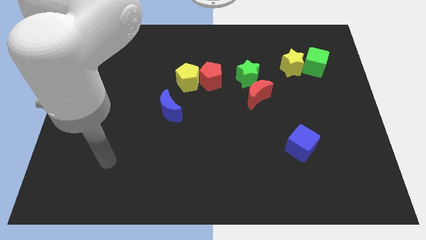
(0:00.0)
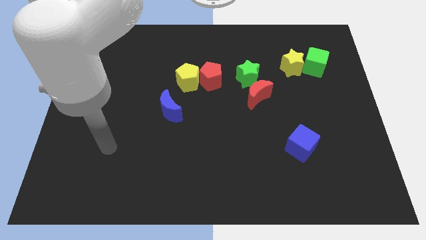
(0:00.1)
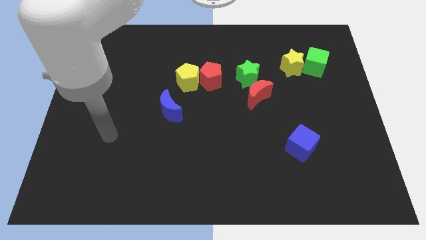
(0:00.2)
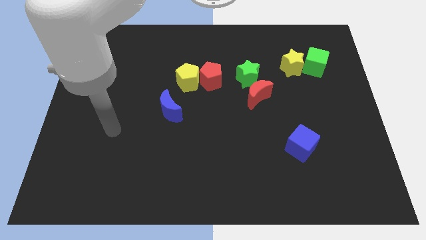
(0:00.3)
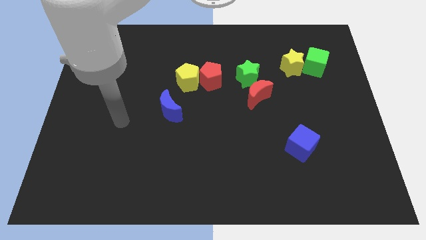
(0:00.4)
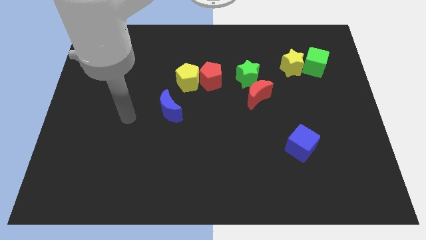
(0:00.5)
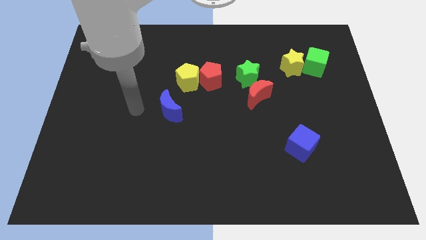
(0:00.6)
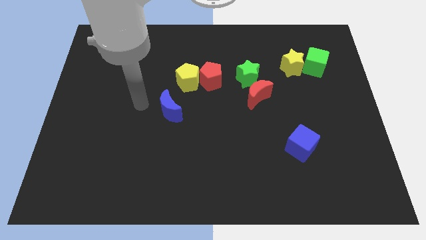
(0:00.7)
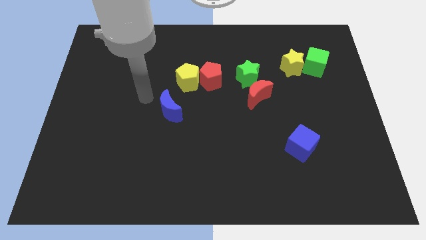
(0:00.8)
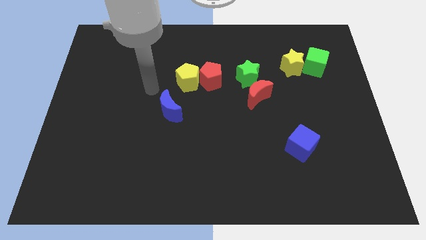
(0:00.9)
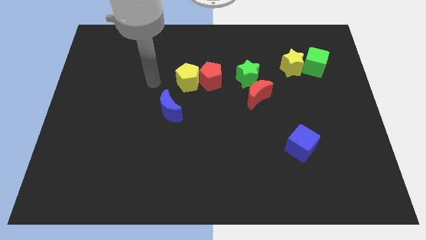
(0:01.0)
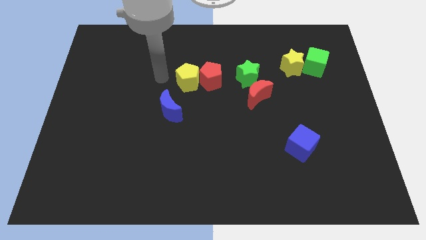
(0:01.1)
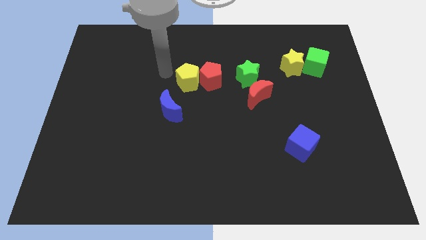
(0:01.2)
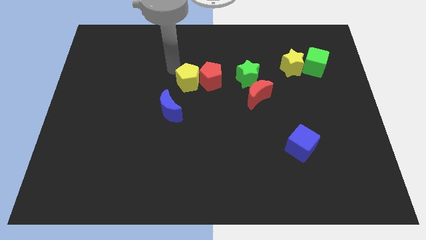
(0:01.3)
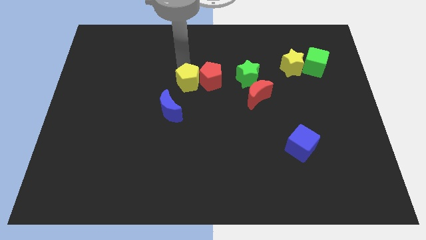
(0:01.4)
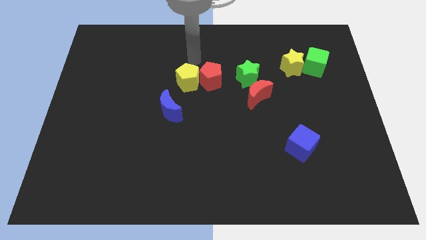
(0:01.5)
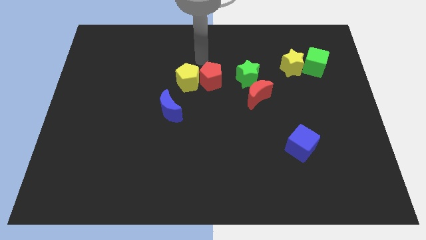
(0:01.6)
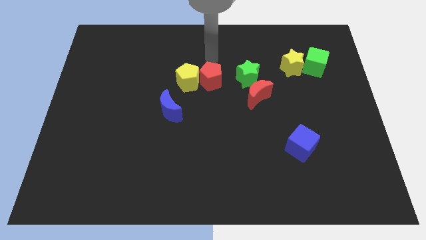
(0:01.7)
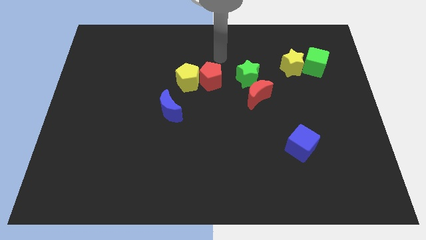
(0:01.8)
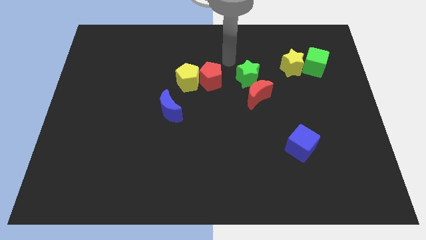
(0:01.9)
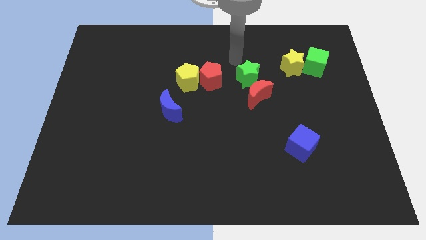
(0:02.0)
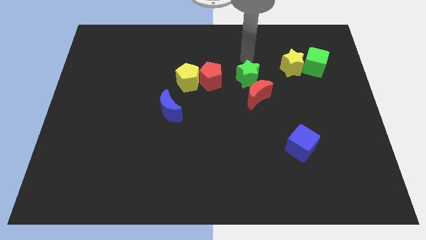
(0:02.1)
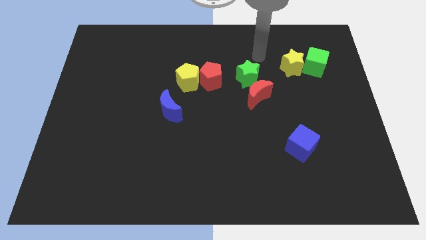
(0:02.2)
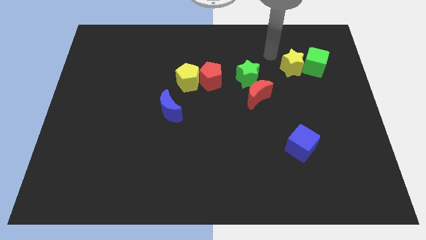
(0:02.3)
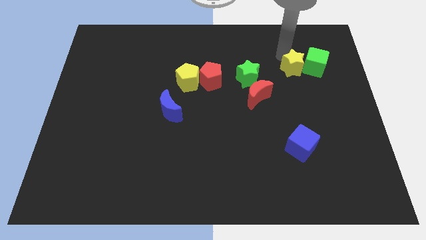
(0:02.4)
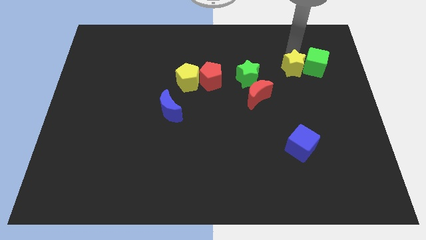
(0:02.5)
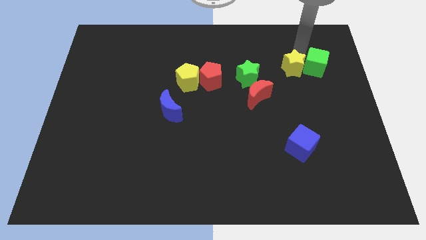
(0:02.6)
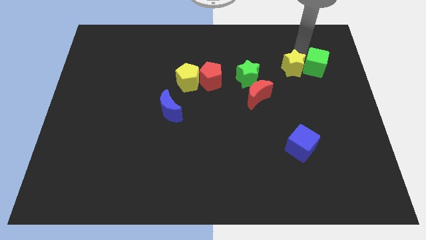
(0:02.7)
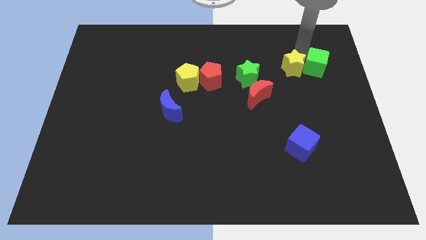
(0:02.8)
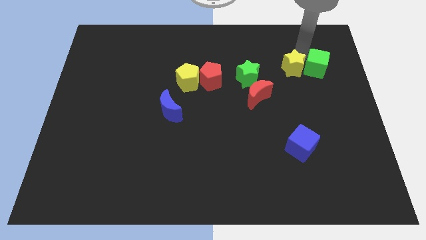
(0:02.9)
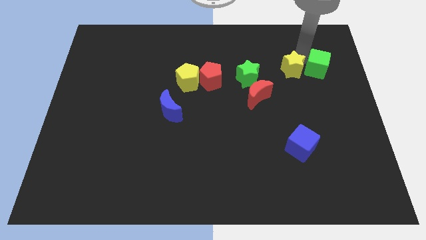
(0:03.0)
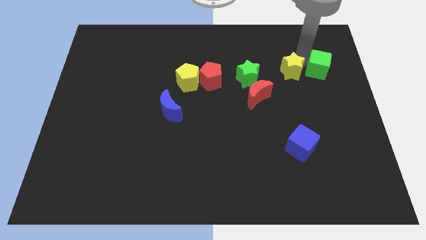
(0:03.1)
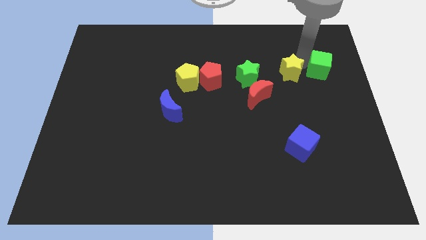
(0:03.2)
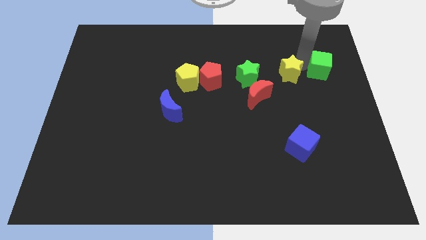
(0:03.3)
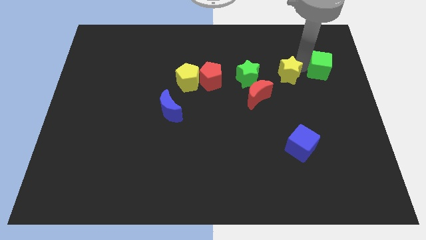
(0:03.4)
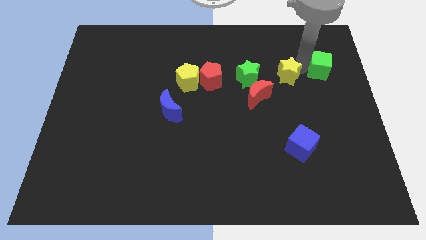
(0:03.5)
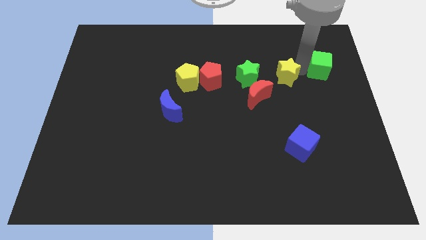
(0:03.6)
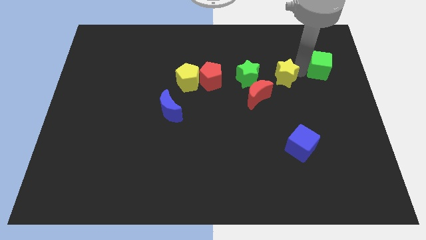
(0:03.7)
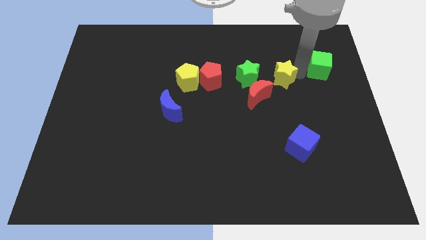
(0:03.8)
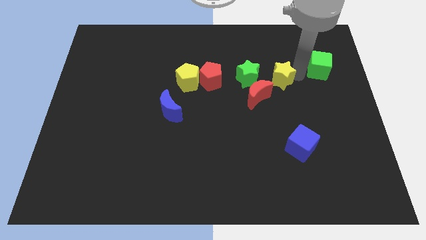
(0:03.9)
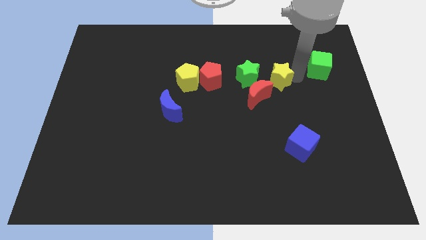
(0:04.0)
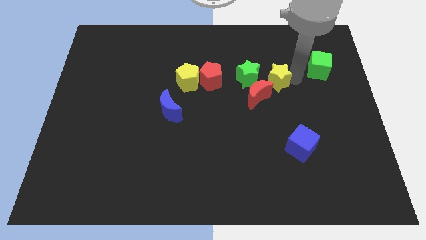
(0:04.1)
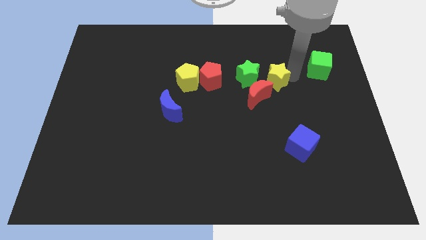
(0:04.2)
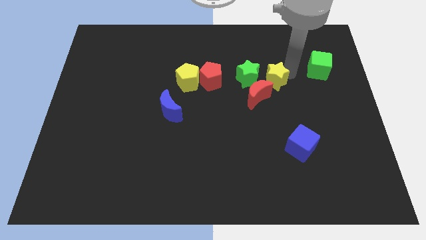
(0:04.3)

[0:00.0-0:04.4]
push the yellow star a little bit diagonally downwards and to the left

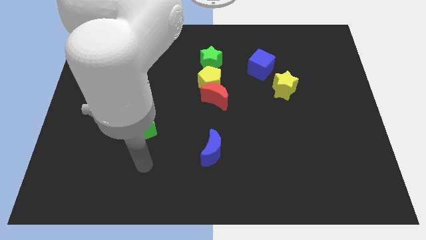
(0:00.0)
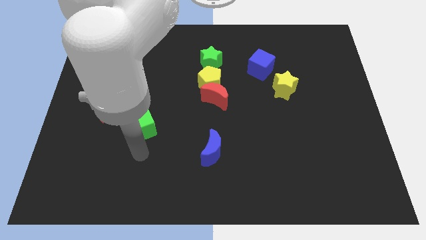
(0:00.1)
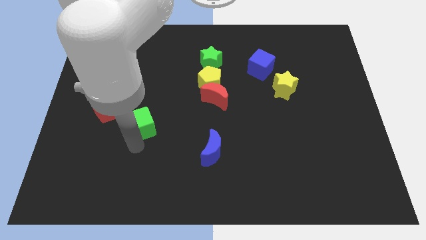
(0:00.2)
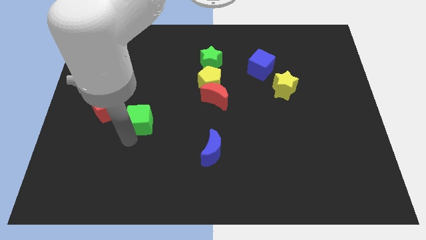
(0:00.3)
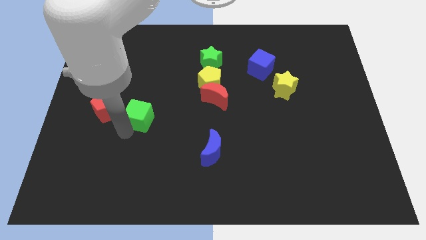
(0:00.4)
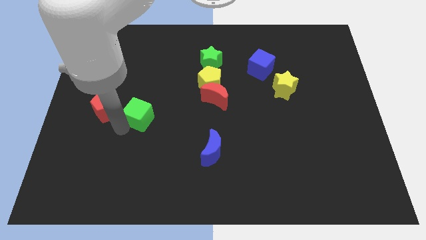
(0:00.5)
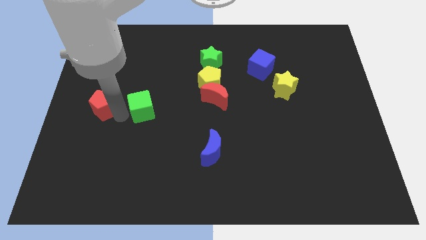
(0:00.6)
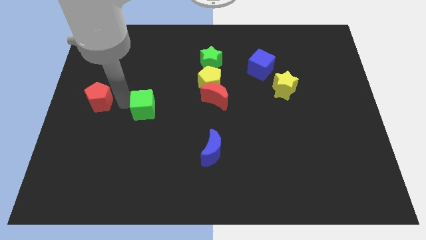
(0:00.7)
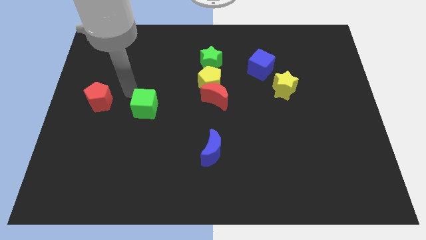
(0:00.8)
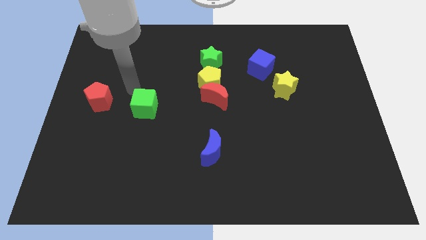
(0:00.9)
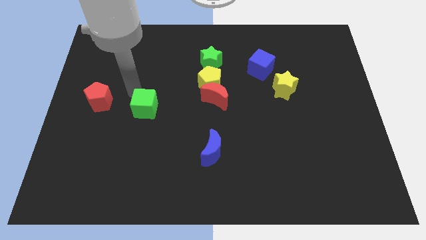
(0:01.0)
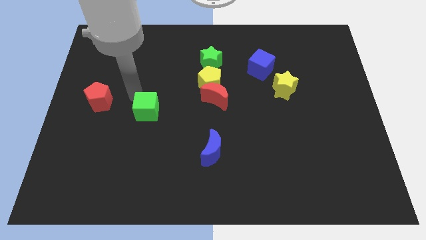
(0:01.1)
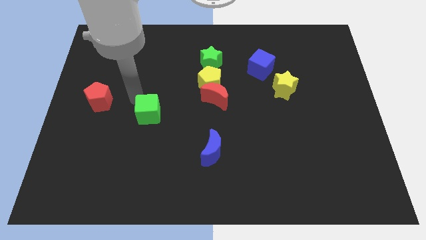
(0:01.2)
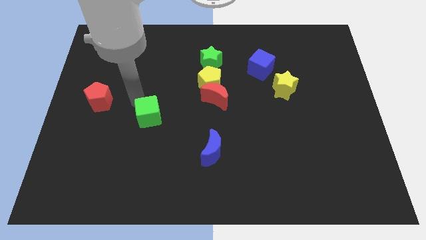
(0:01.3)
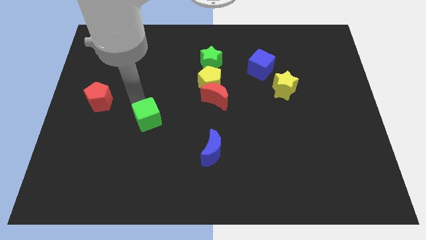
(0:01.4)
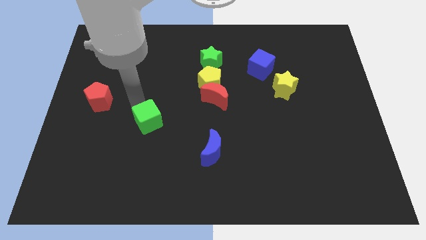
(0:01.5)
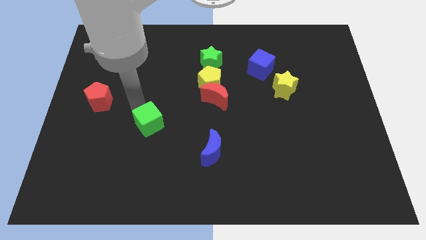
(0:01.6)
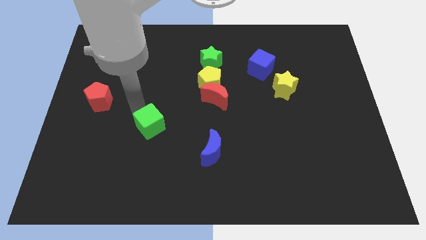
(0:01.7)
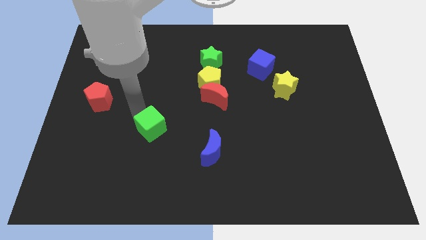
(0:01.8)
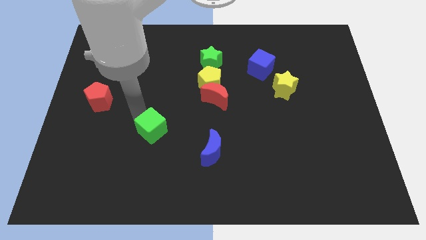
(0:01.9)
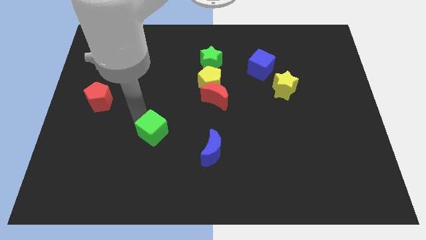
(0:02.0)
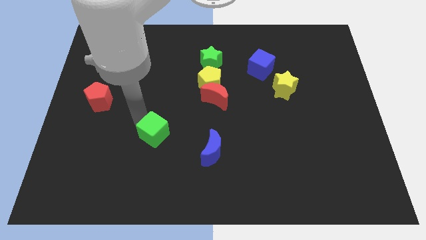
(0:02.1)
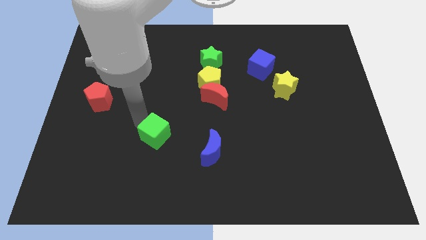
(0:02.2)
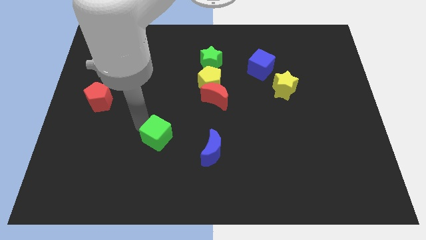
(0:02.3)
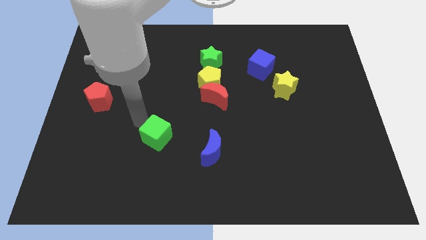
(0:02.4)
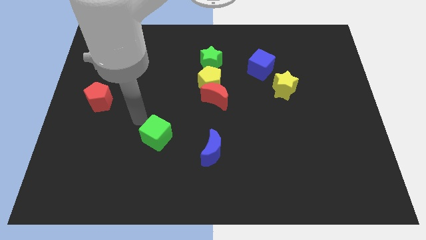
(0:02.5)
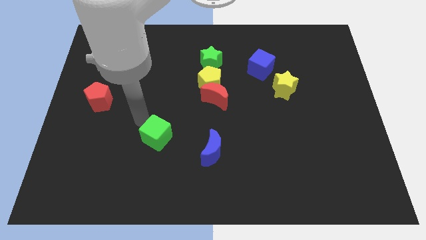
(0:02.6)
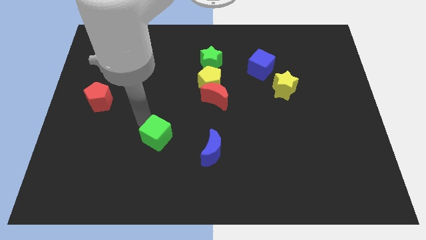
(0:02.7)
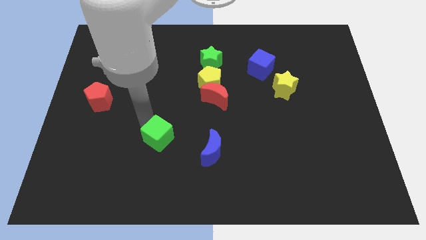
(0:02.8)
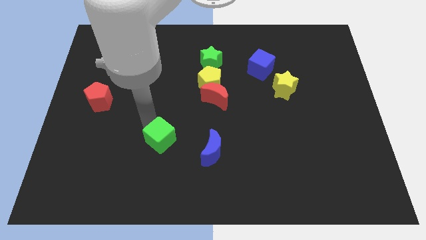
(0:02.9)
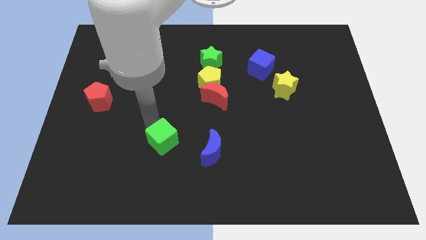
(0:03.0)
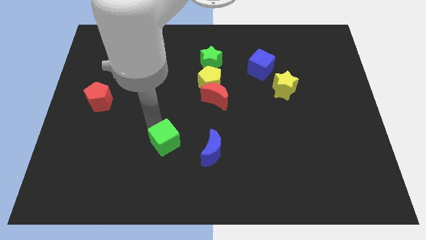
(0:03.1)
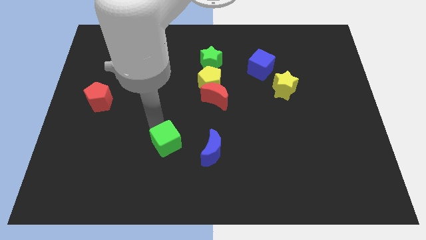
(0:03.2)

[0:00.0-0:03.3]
slightly move the green cube down and to the right
